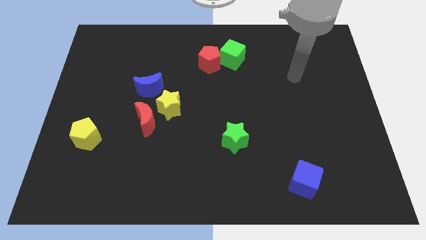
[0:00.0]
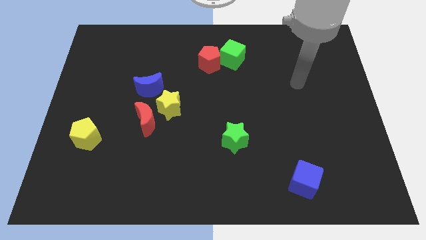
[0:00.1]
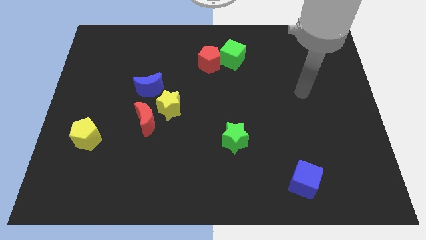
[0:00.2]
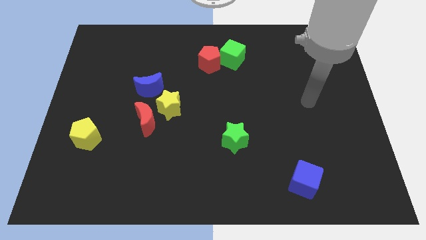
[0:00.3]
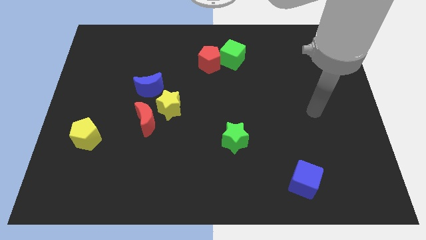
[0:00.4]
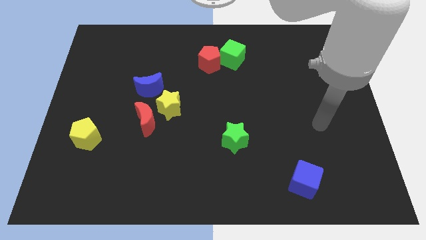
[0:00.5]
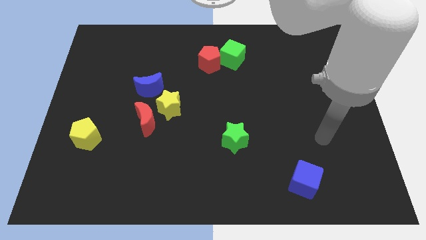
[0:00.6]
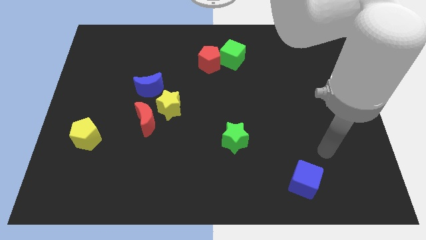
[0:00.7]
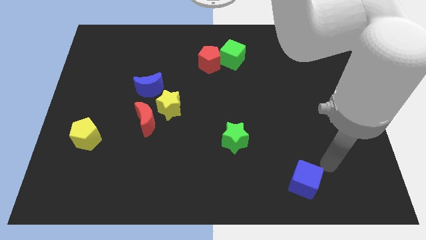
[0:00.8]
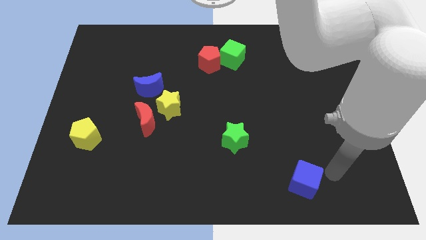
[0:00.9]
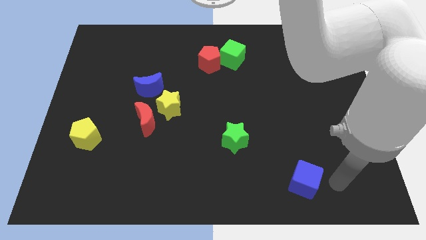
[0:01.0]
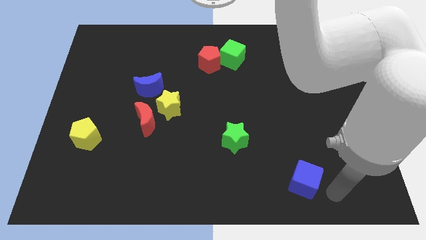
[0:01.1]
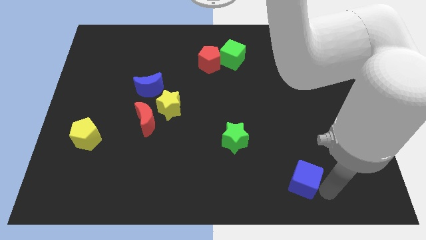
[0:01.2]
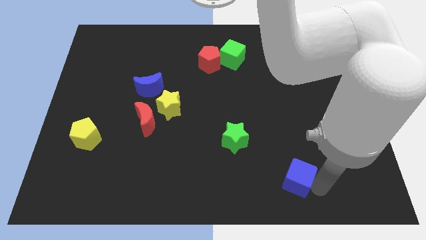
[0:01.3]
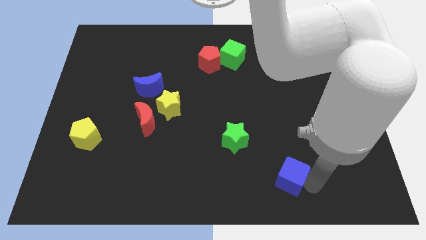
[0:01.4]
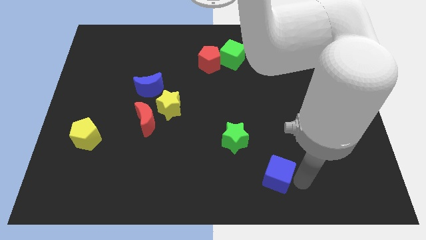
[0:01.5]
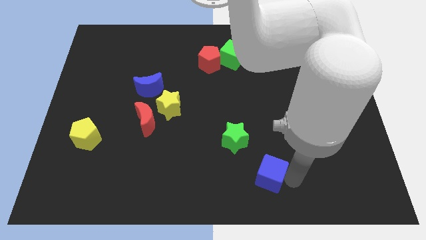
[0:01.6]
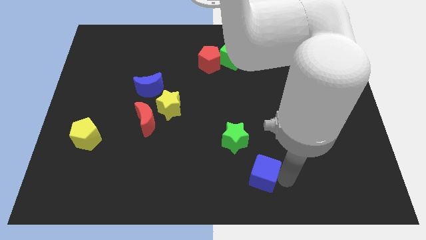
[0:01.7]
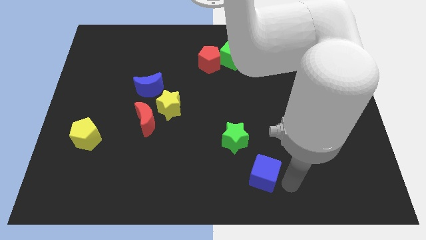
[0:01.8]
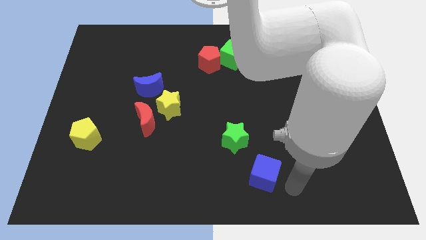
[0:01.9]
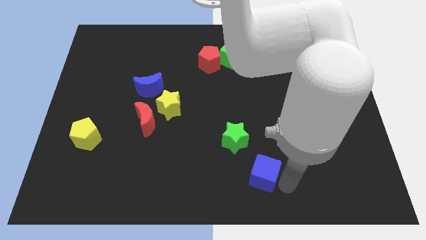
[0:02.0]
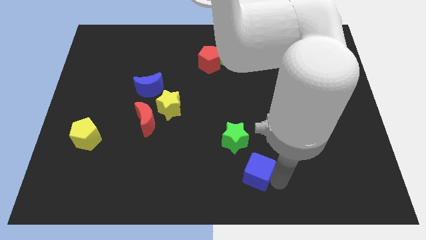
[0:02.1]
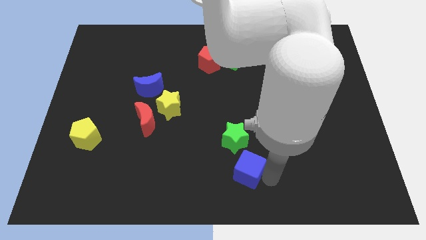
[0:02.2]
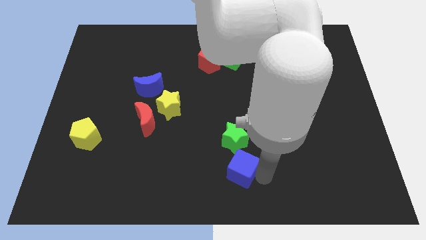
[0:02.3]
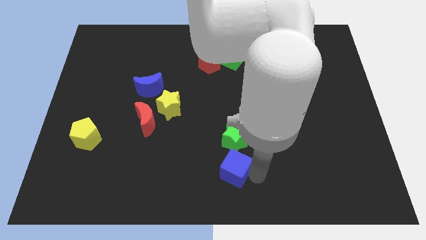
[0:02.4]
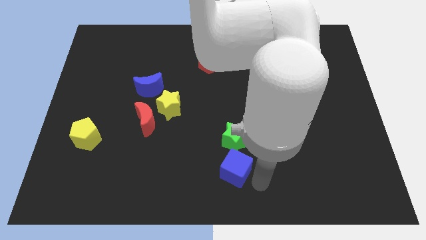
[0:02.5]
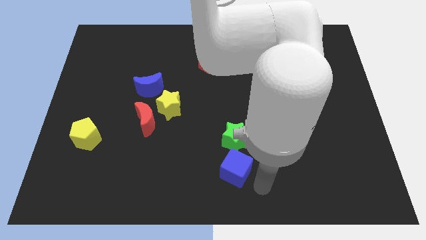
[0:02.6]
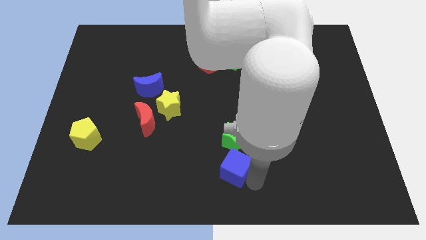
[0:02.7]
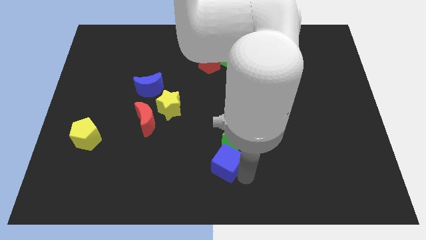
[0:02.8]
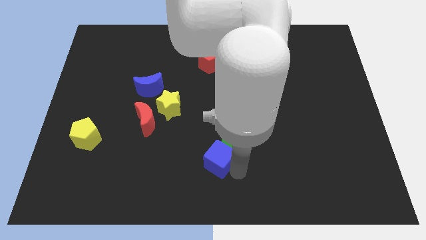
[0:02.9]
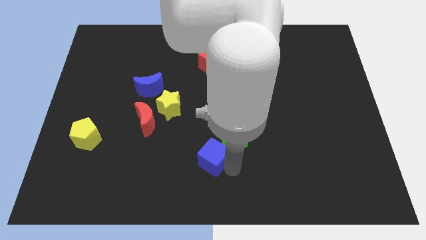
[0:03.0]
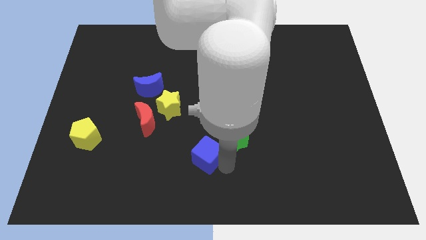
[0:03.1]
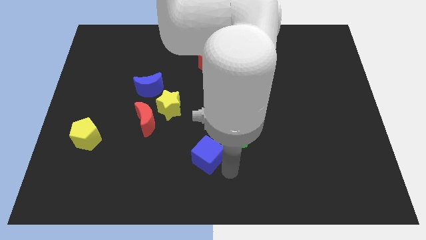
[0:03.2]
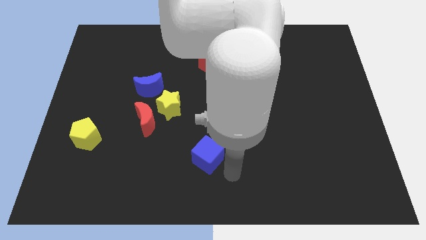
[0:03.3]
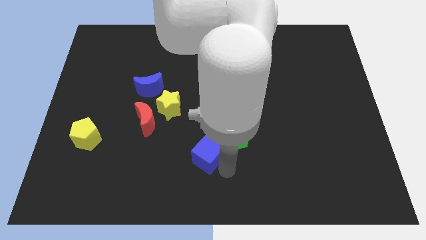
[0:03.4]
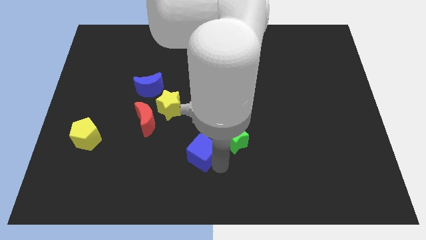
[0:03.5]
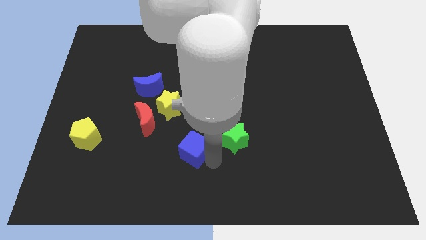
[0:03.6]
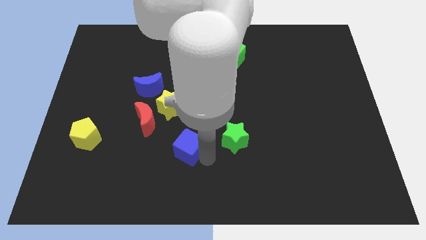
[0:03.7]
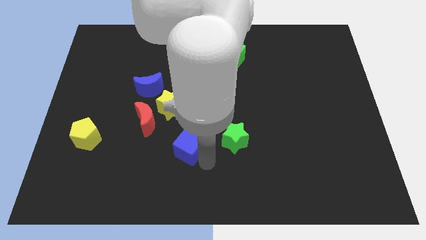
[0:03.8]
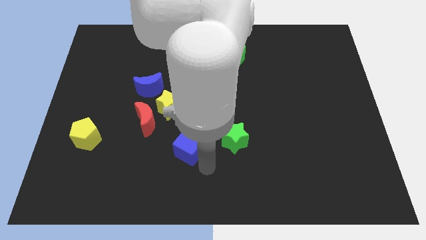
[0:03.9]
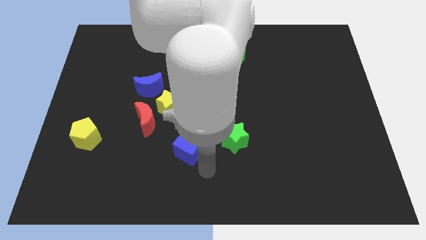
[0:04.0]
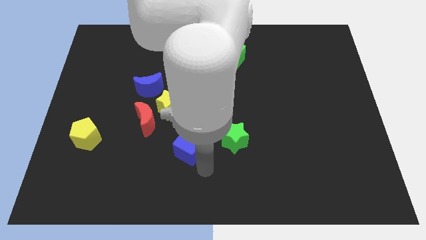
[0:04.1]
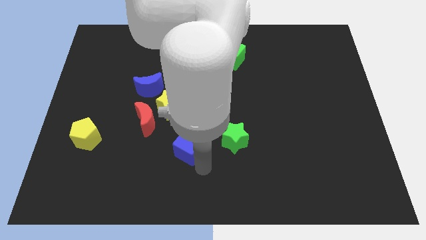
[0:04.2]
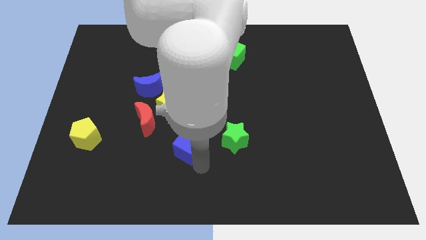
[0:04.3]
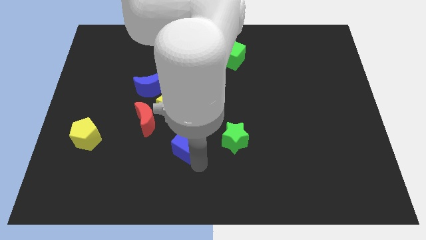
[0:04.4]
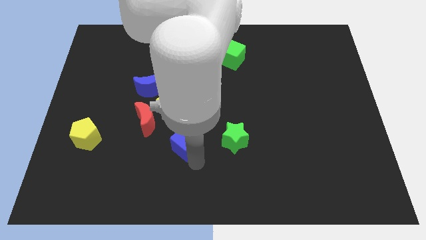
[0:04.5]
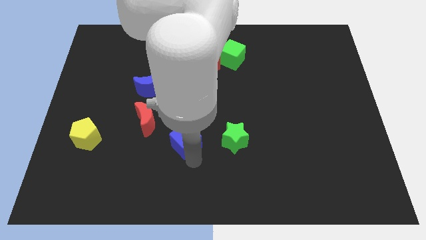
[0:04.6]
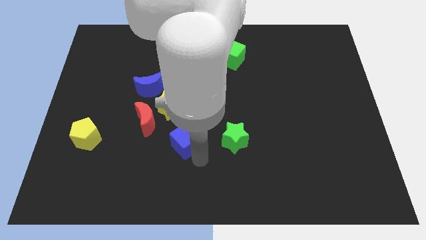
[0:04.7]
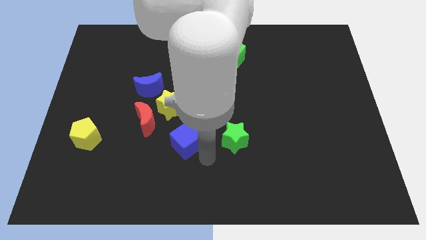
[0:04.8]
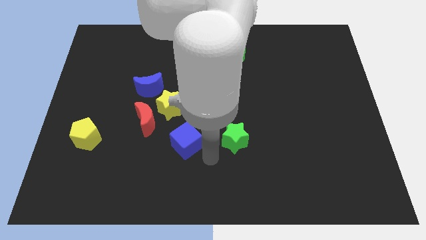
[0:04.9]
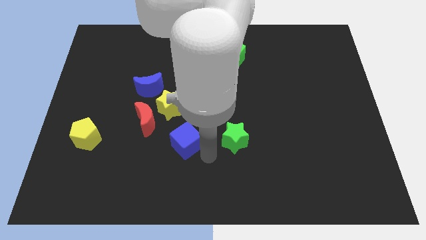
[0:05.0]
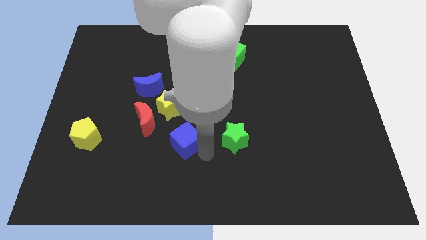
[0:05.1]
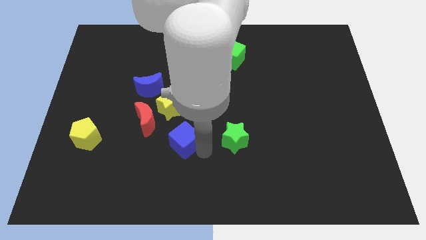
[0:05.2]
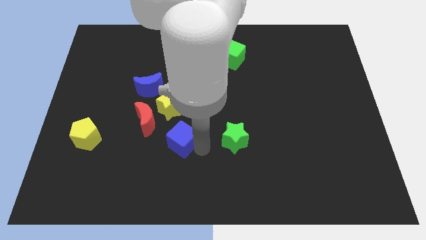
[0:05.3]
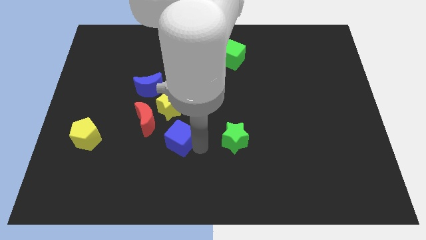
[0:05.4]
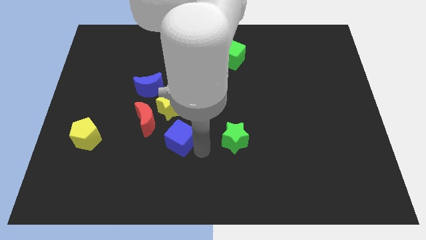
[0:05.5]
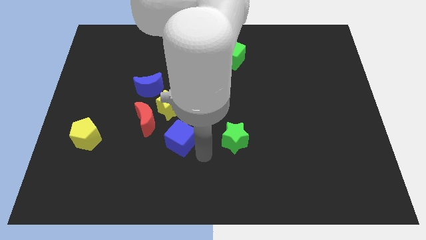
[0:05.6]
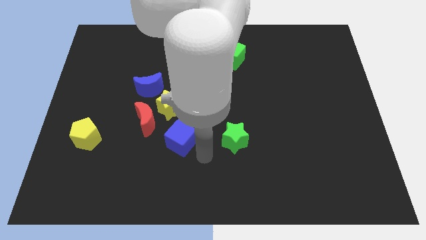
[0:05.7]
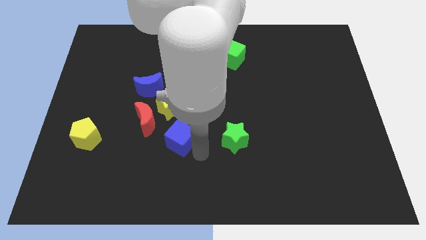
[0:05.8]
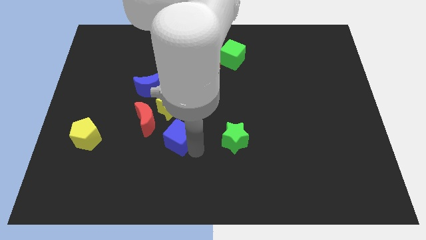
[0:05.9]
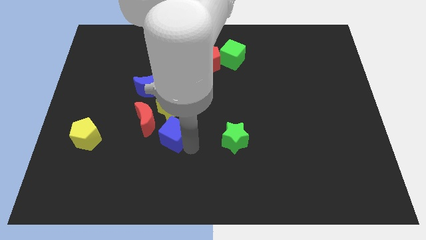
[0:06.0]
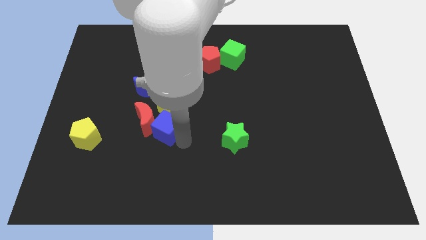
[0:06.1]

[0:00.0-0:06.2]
slide the blue cube next to the red moon

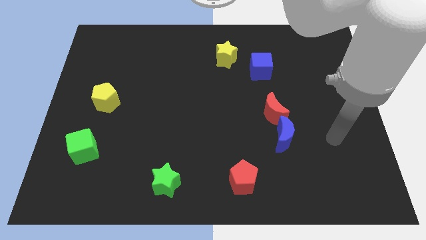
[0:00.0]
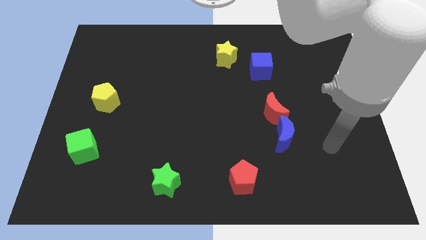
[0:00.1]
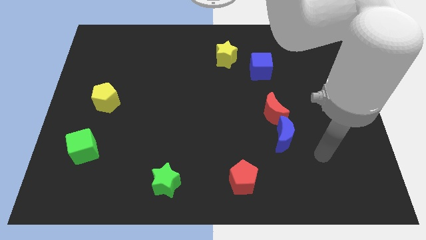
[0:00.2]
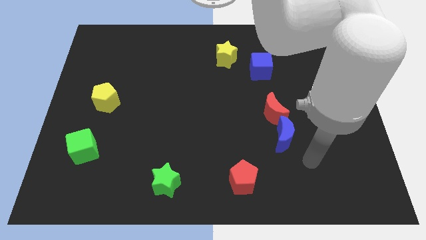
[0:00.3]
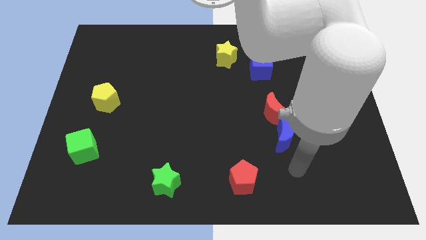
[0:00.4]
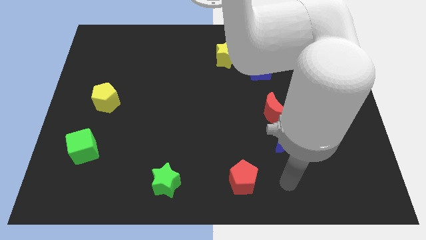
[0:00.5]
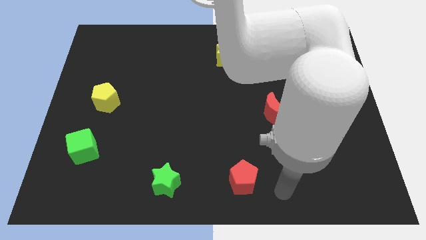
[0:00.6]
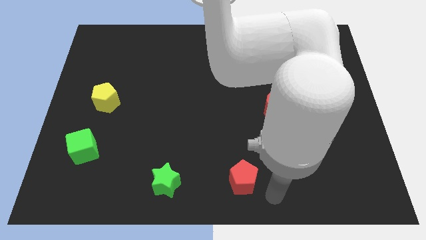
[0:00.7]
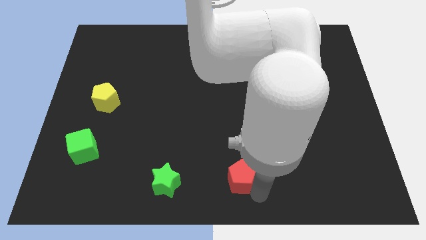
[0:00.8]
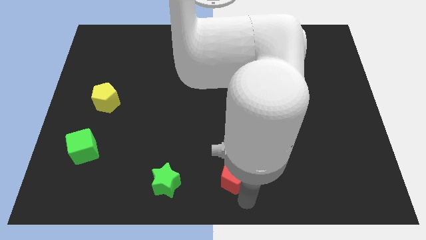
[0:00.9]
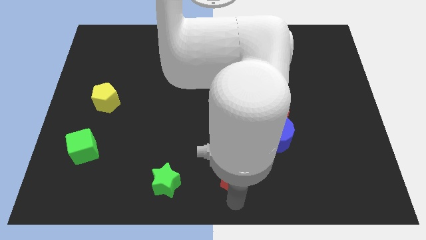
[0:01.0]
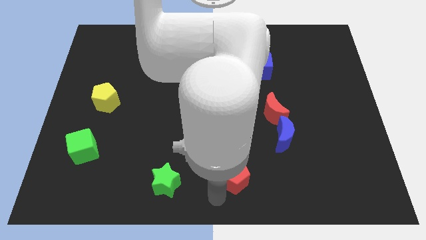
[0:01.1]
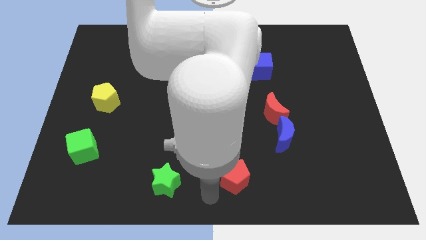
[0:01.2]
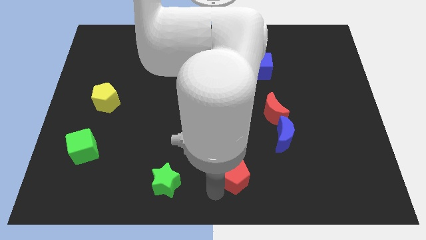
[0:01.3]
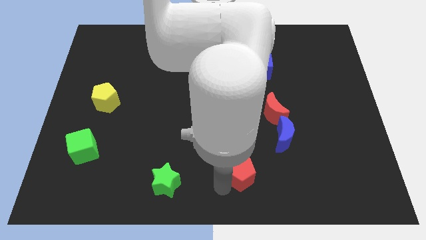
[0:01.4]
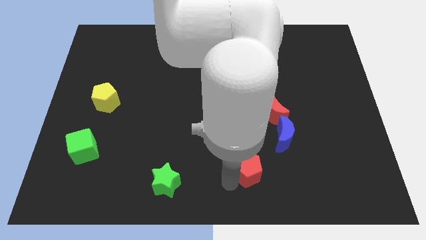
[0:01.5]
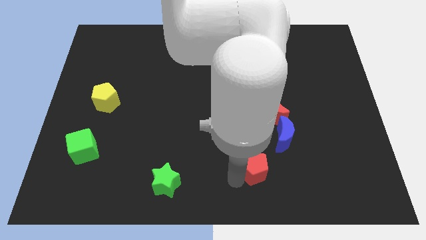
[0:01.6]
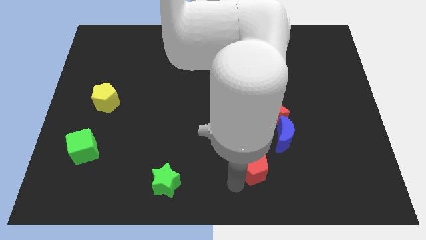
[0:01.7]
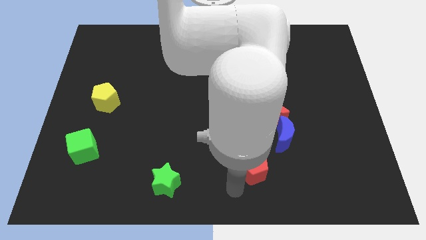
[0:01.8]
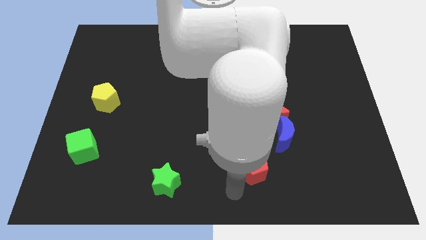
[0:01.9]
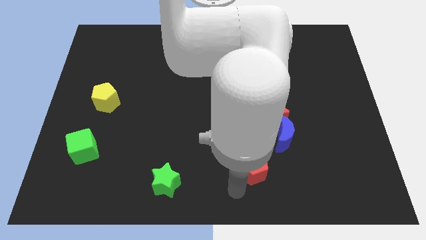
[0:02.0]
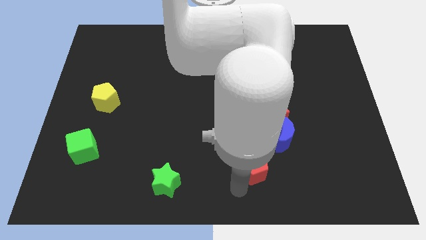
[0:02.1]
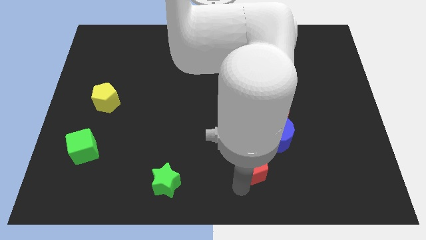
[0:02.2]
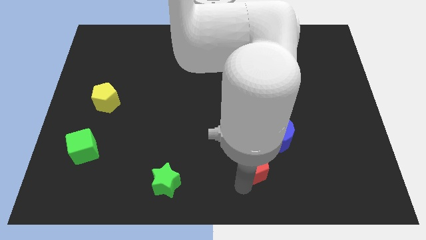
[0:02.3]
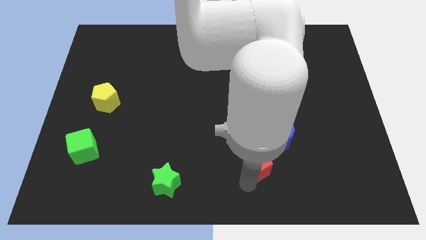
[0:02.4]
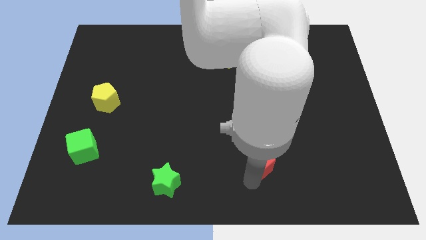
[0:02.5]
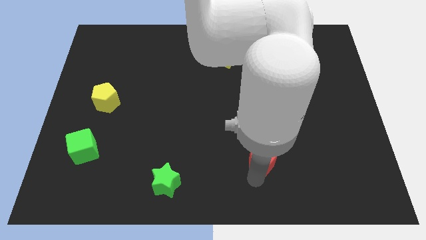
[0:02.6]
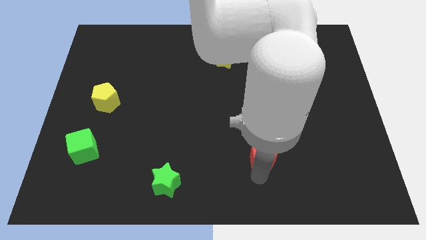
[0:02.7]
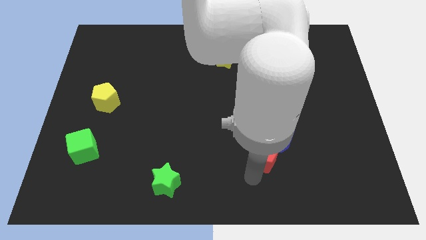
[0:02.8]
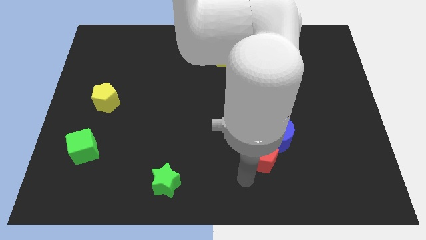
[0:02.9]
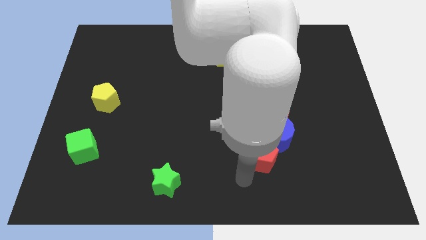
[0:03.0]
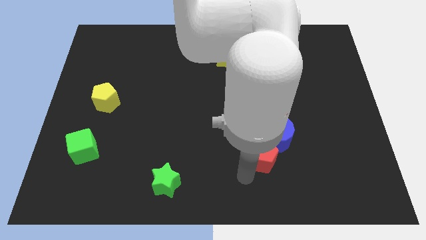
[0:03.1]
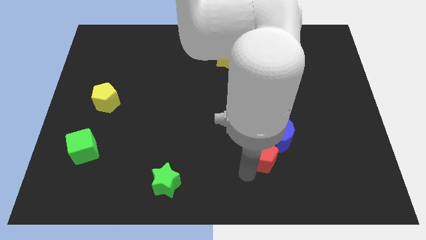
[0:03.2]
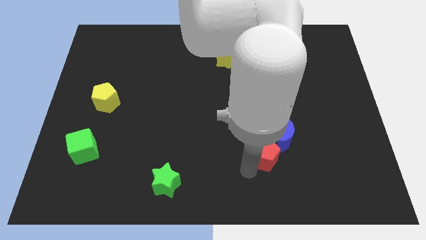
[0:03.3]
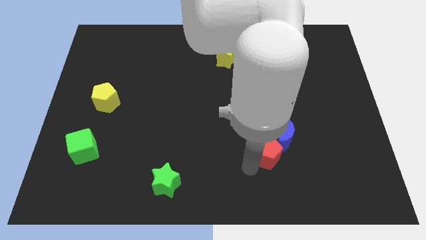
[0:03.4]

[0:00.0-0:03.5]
slide the red pentagon close to the blue moon
